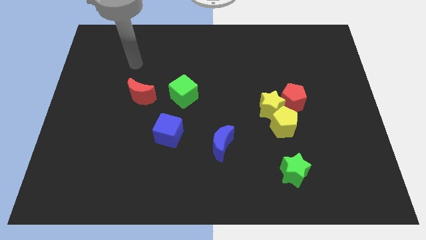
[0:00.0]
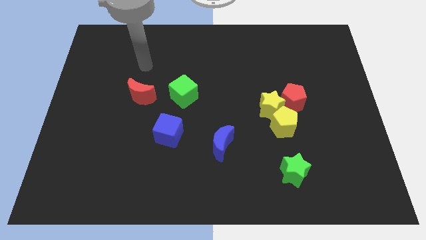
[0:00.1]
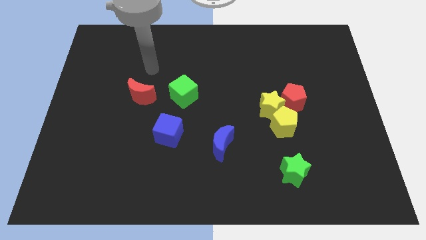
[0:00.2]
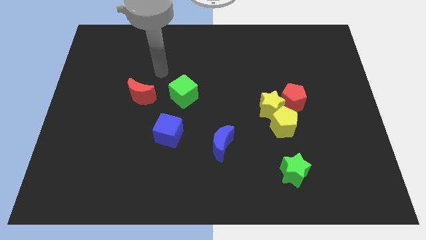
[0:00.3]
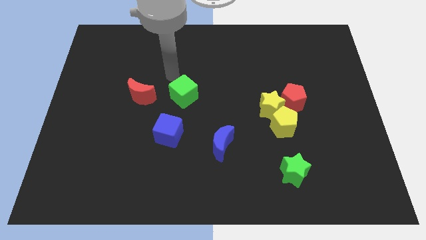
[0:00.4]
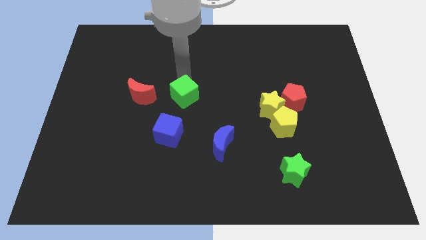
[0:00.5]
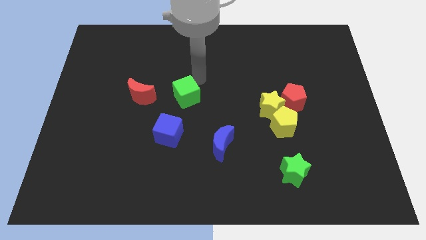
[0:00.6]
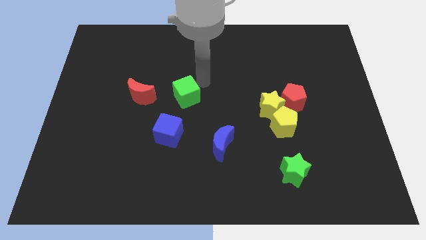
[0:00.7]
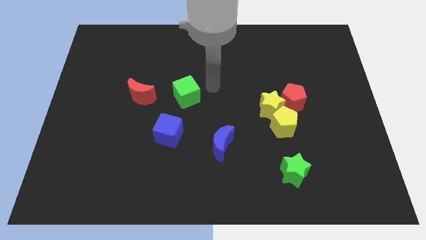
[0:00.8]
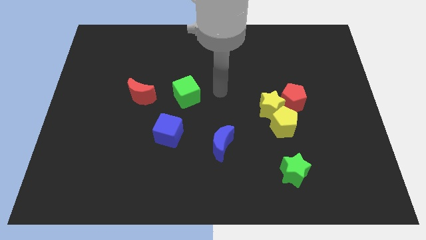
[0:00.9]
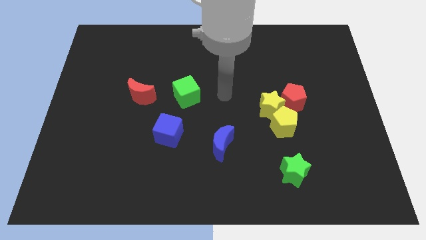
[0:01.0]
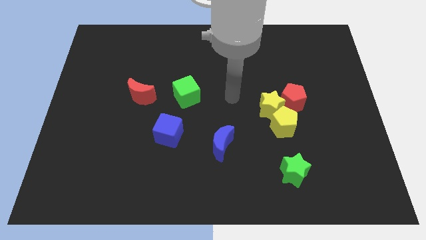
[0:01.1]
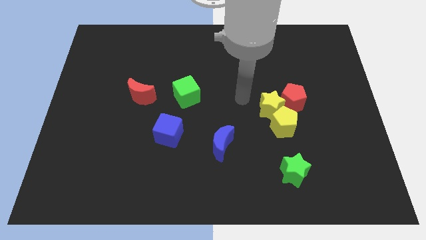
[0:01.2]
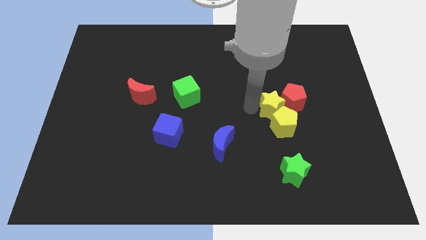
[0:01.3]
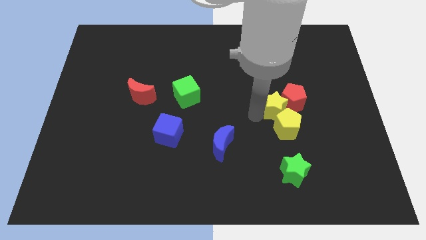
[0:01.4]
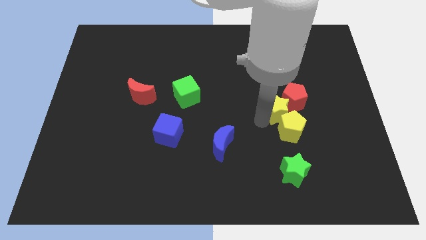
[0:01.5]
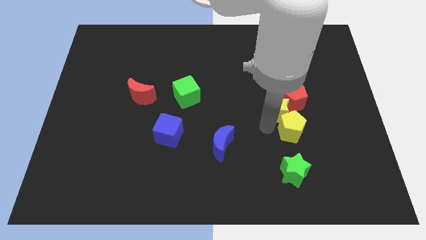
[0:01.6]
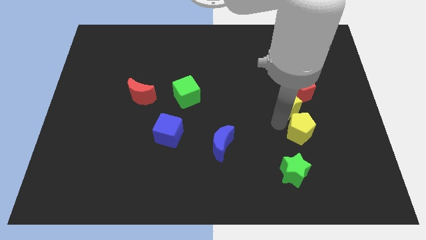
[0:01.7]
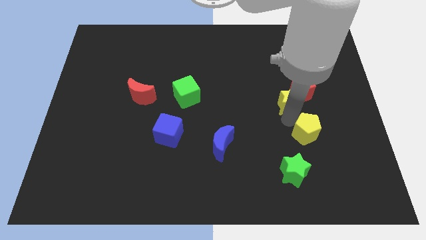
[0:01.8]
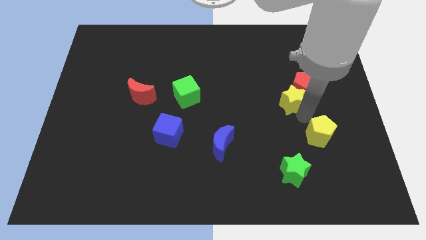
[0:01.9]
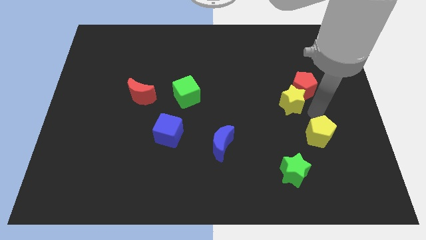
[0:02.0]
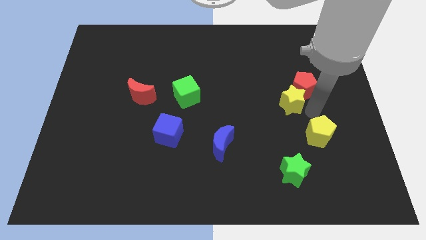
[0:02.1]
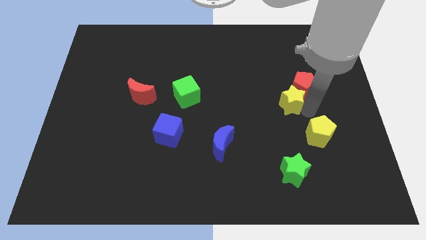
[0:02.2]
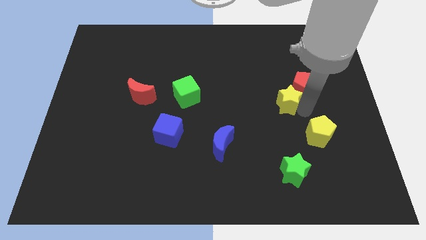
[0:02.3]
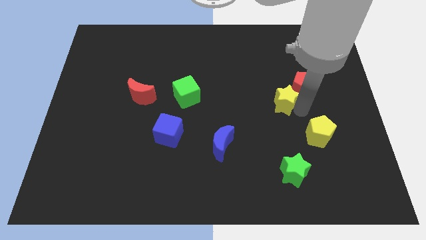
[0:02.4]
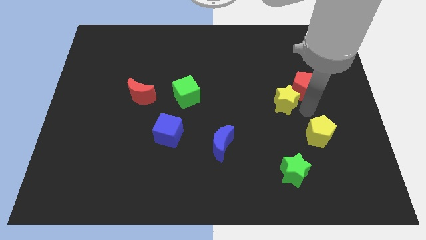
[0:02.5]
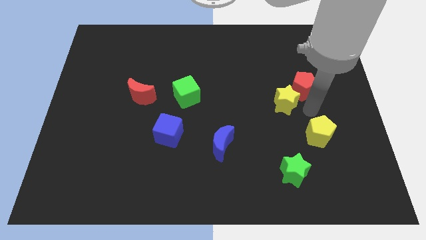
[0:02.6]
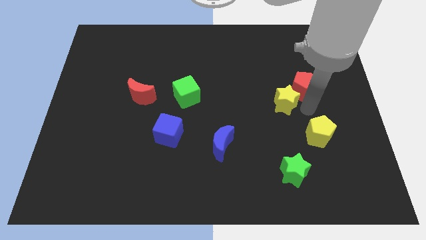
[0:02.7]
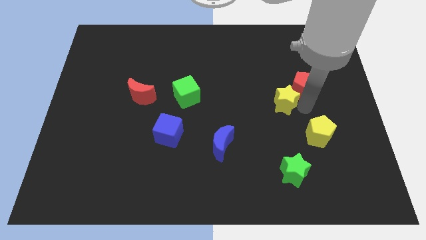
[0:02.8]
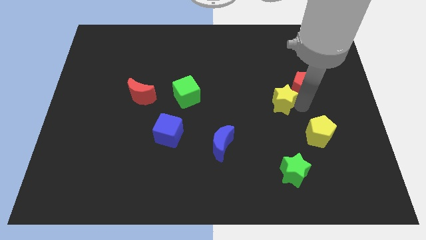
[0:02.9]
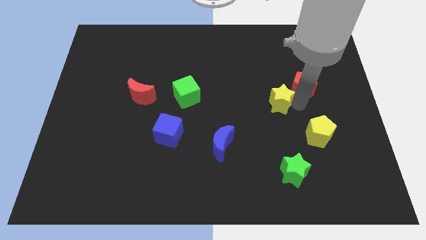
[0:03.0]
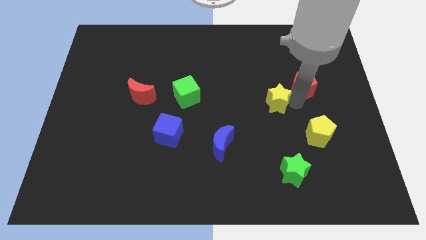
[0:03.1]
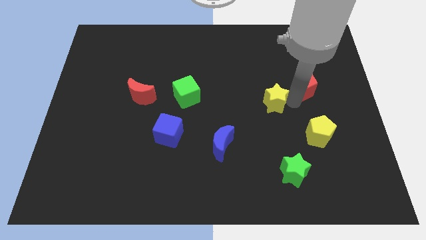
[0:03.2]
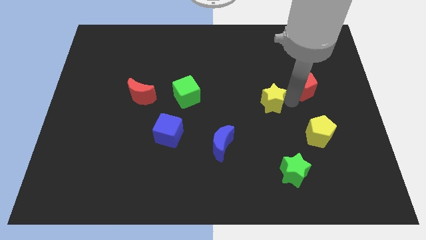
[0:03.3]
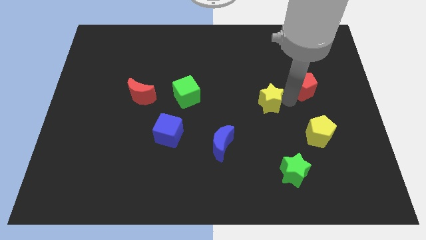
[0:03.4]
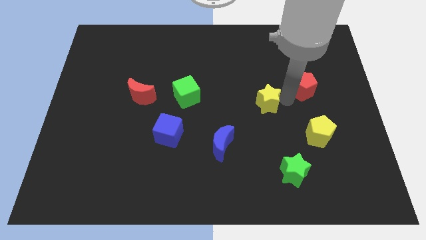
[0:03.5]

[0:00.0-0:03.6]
pull the yellow star apart from the red pentagon and yellow pentagon

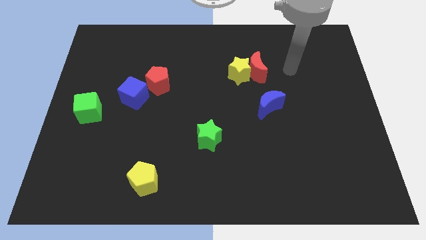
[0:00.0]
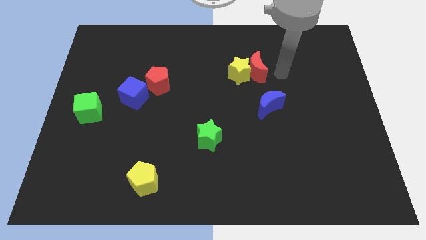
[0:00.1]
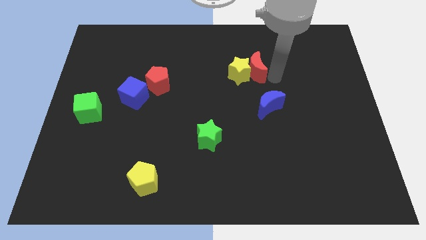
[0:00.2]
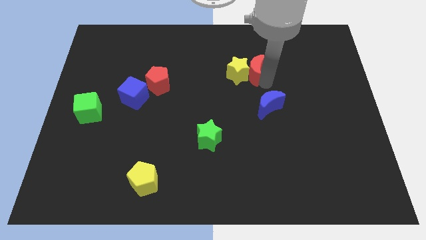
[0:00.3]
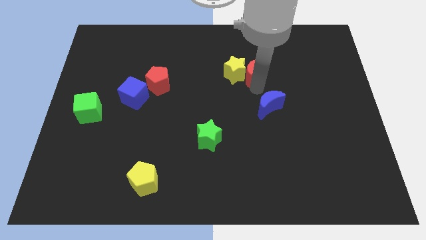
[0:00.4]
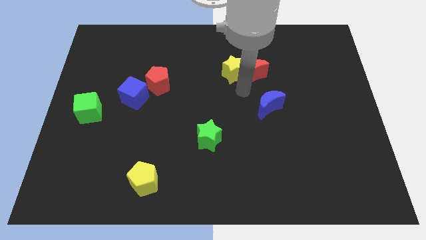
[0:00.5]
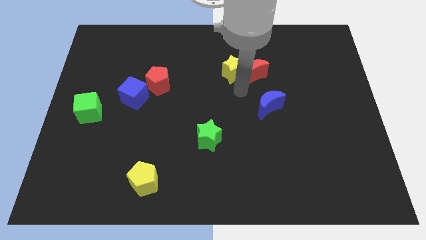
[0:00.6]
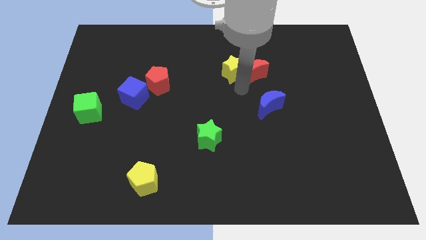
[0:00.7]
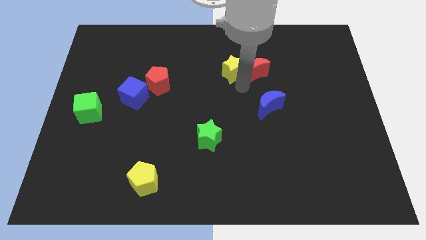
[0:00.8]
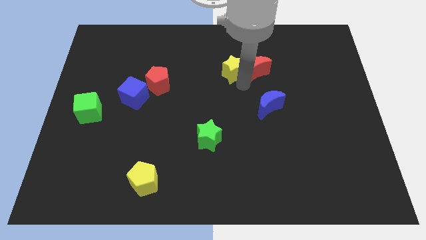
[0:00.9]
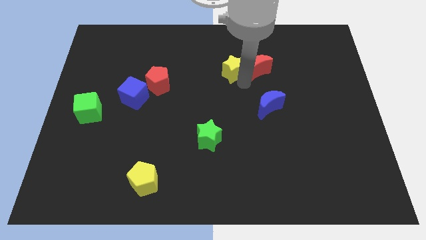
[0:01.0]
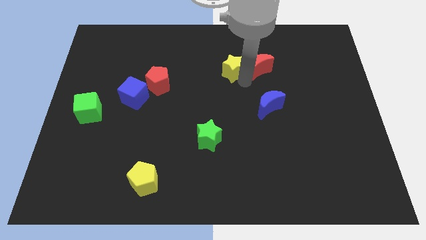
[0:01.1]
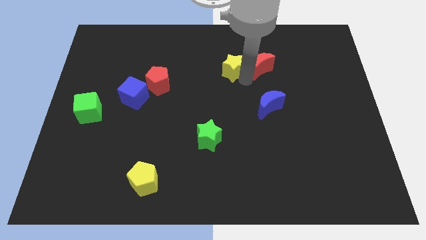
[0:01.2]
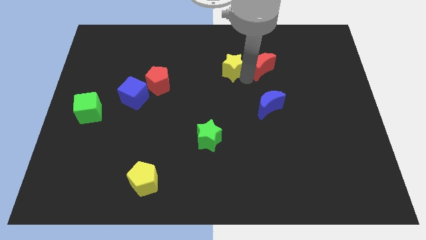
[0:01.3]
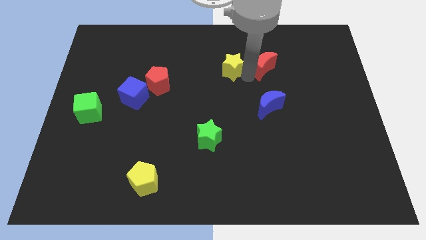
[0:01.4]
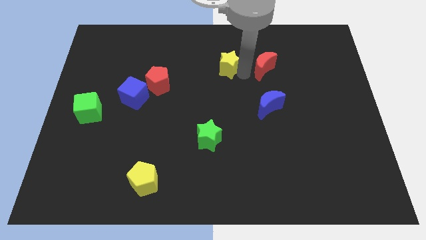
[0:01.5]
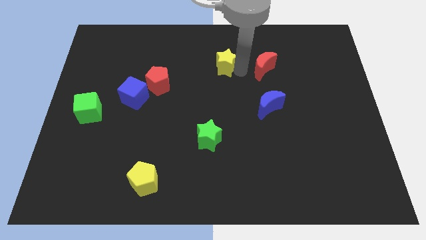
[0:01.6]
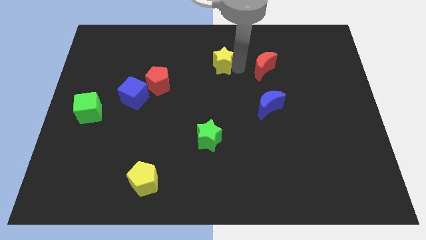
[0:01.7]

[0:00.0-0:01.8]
pull the red moon apart from the yellow star

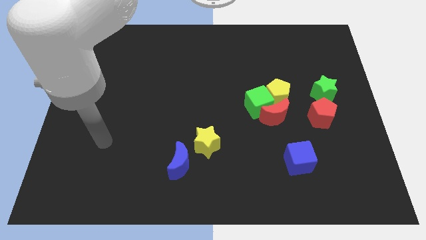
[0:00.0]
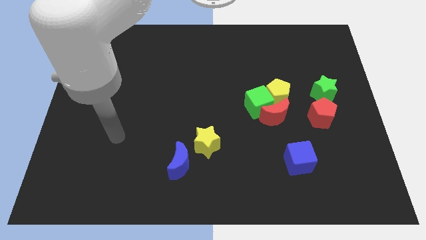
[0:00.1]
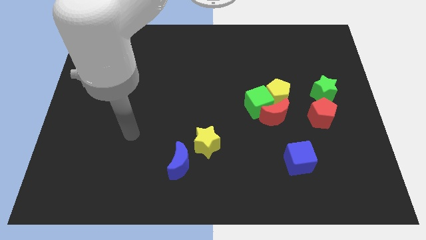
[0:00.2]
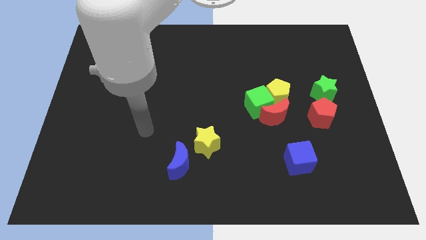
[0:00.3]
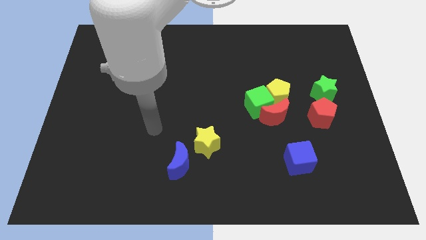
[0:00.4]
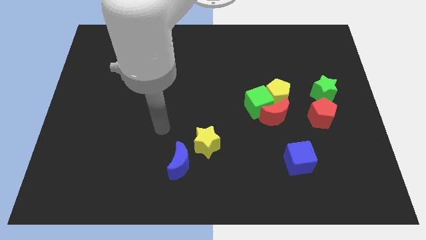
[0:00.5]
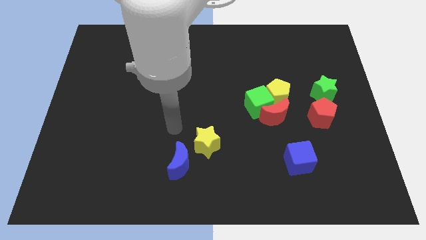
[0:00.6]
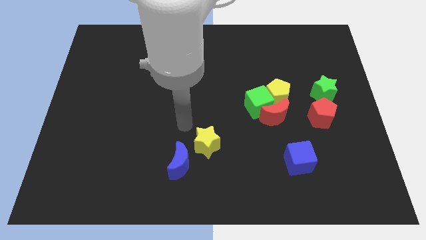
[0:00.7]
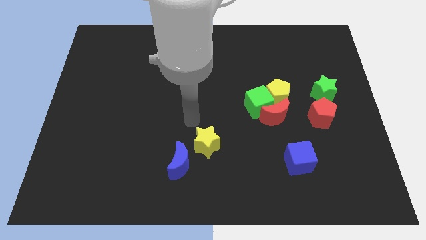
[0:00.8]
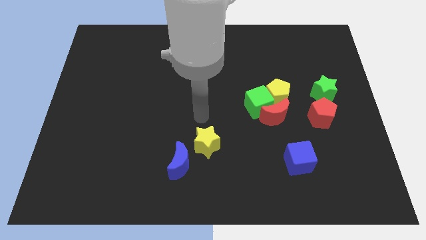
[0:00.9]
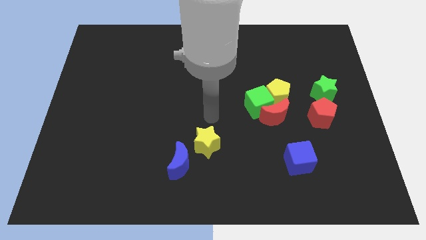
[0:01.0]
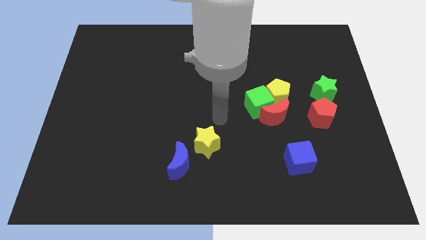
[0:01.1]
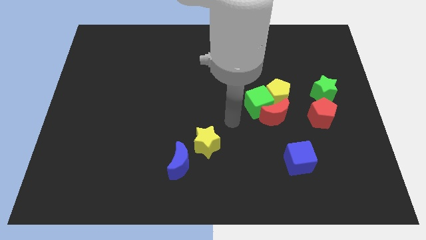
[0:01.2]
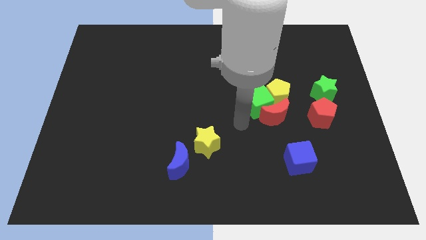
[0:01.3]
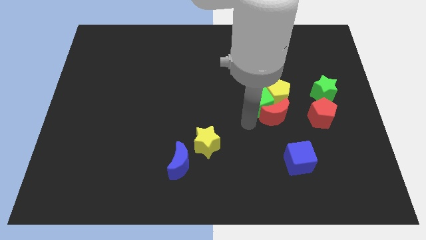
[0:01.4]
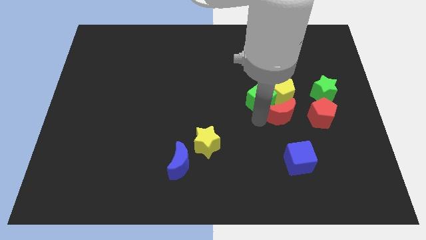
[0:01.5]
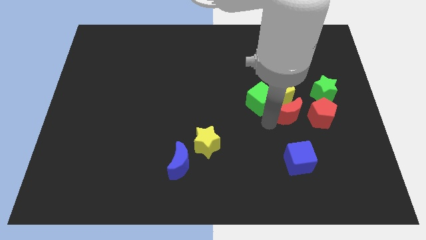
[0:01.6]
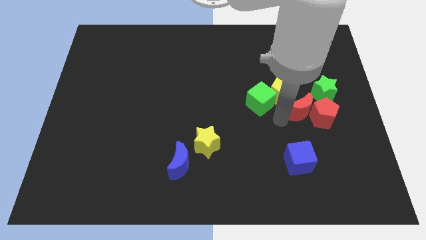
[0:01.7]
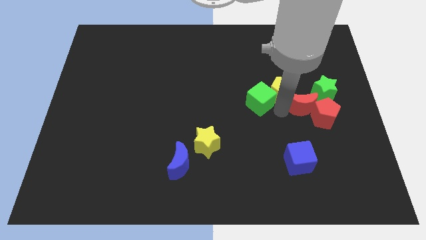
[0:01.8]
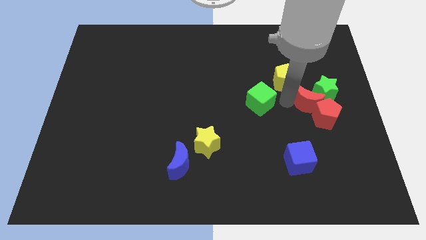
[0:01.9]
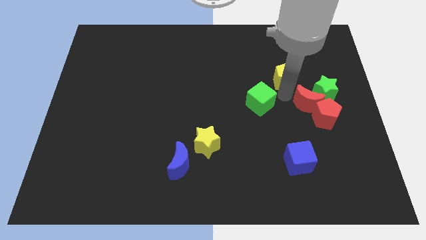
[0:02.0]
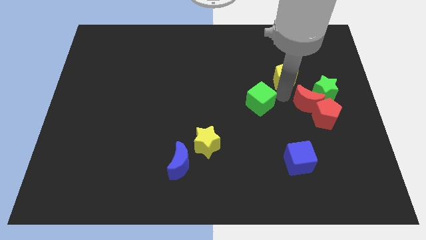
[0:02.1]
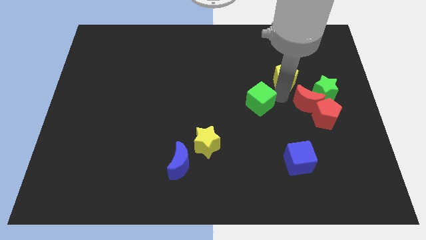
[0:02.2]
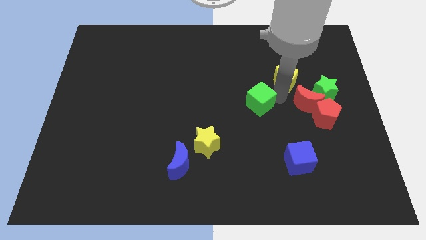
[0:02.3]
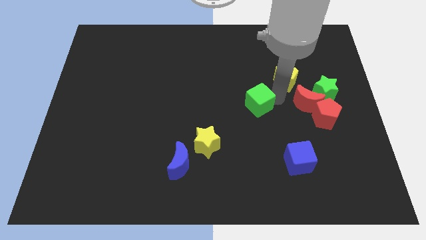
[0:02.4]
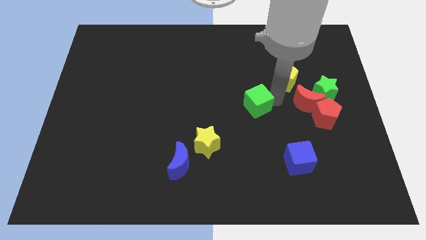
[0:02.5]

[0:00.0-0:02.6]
move the green cube away from the red moon and yellow pentagon

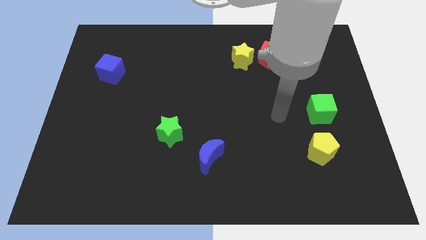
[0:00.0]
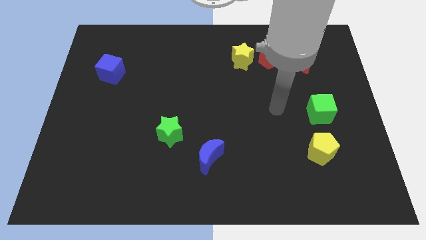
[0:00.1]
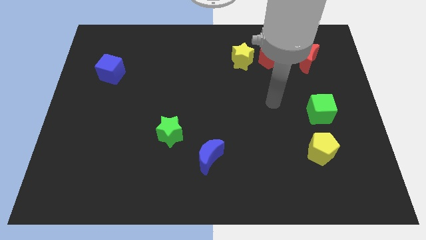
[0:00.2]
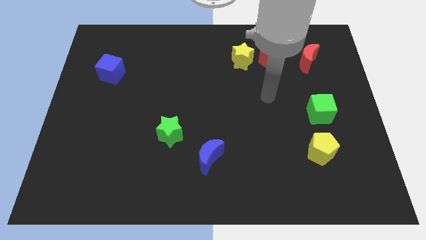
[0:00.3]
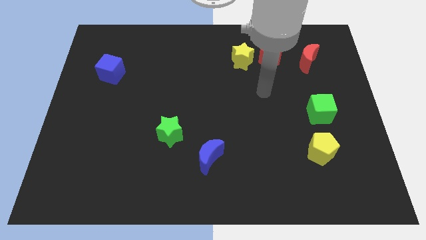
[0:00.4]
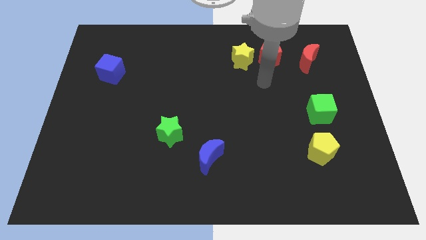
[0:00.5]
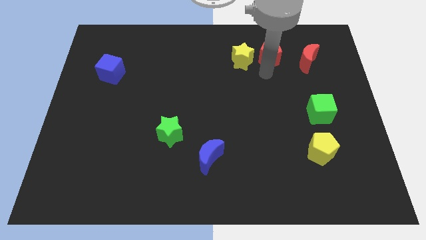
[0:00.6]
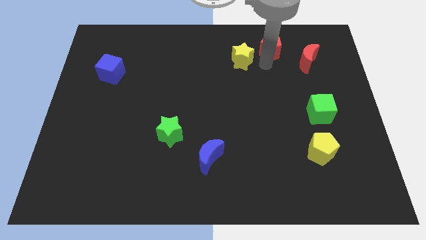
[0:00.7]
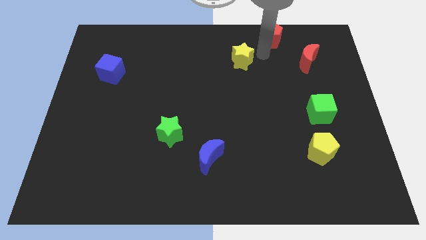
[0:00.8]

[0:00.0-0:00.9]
move the yellow star away from the red pentagon

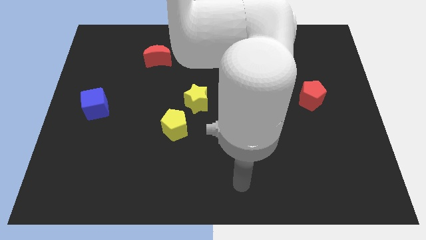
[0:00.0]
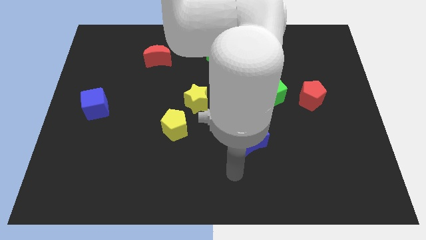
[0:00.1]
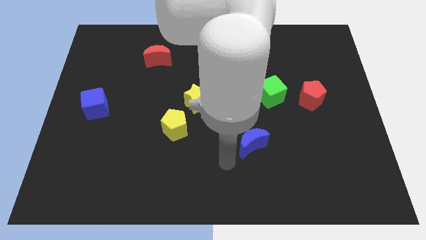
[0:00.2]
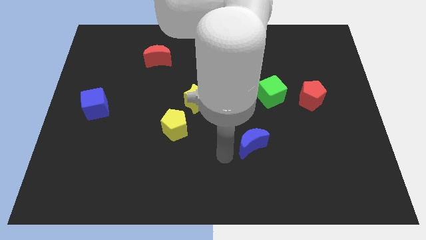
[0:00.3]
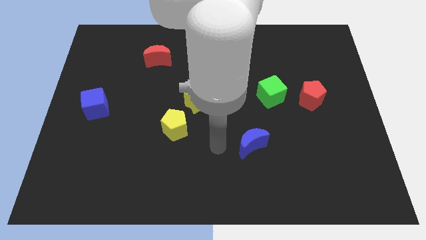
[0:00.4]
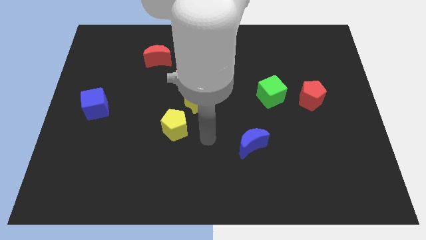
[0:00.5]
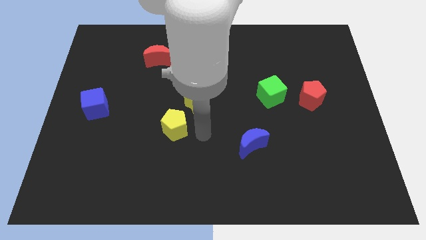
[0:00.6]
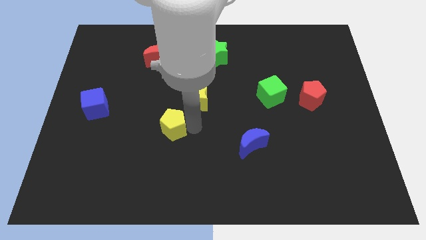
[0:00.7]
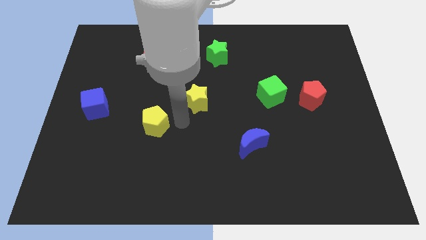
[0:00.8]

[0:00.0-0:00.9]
separate the yellow star from the yellow pentagon
